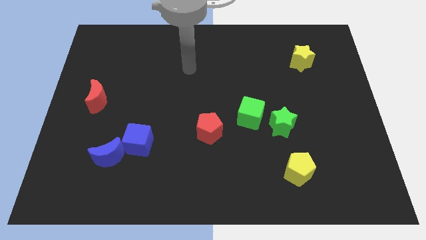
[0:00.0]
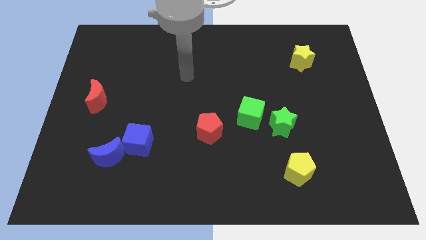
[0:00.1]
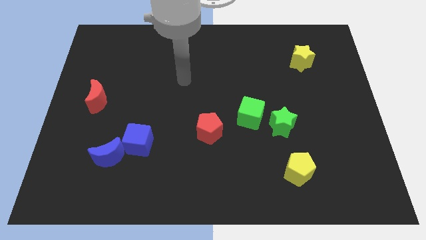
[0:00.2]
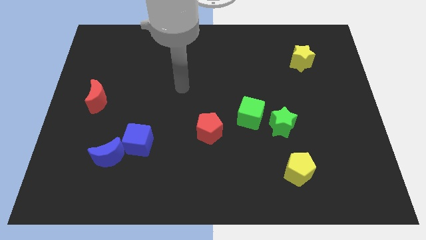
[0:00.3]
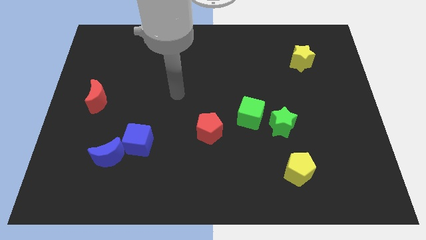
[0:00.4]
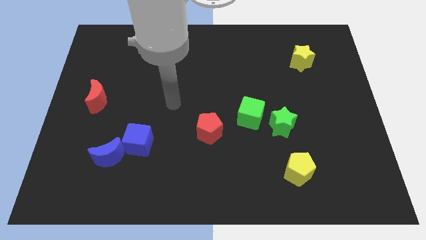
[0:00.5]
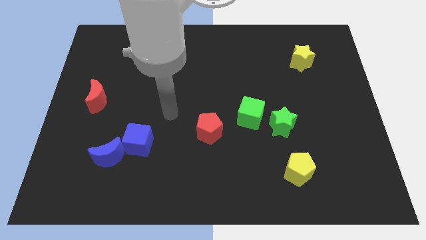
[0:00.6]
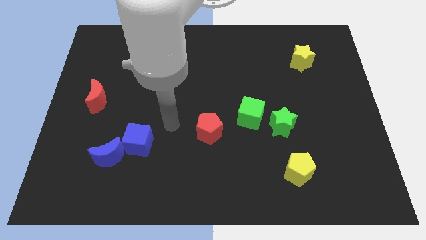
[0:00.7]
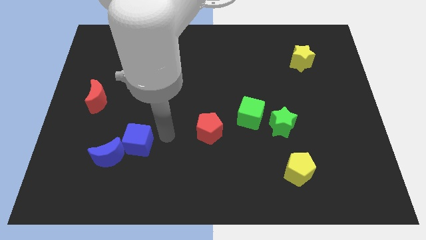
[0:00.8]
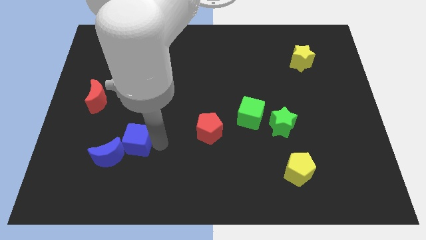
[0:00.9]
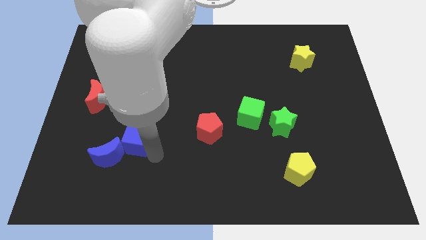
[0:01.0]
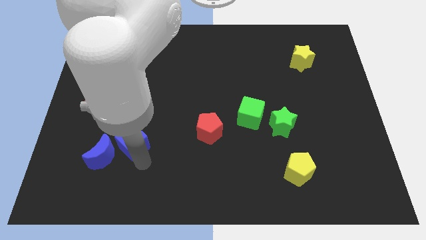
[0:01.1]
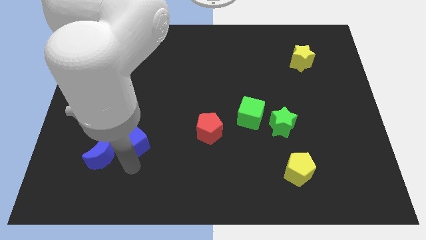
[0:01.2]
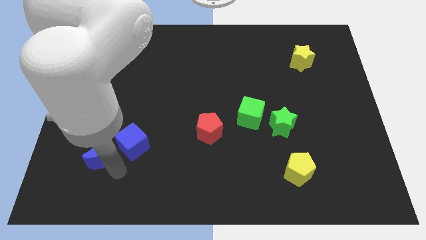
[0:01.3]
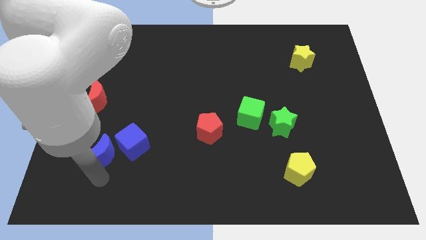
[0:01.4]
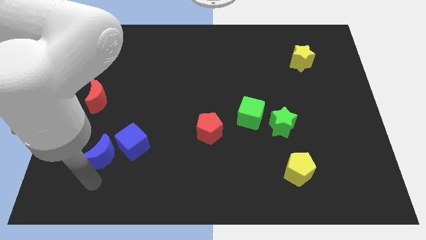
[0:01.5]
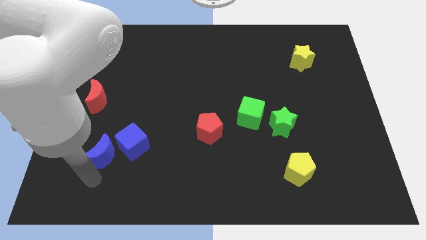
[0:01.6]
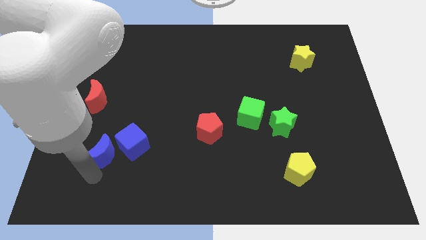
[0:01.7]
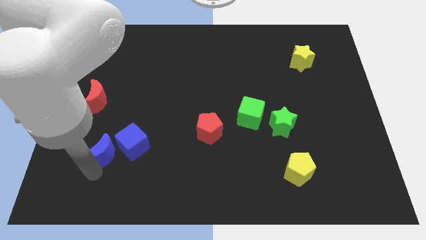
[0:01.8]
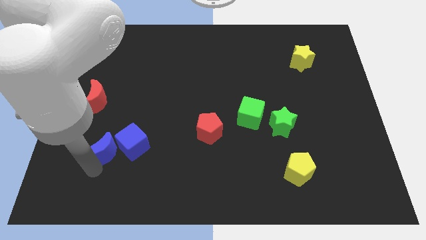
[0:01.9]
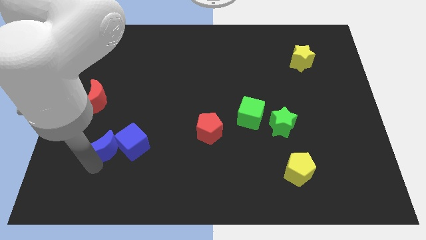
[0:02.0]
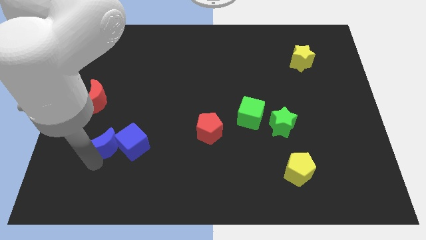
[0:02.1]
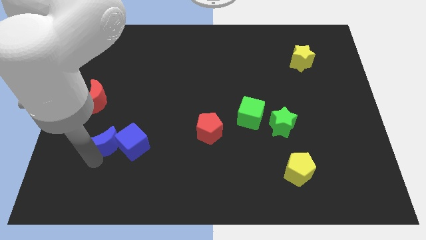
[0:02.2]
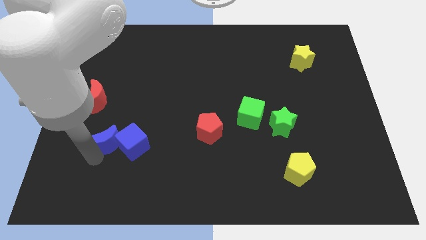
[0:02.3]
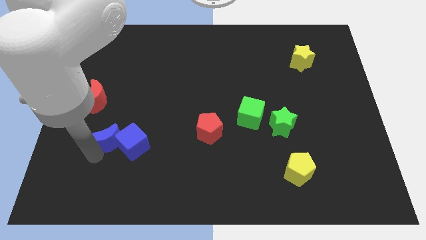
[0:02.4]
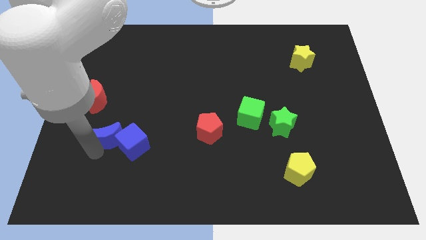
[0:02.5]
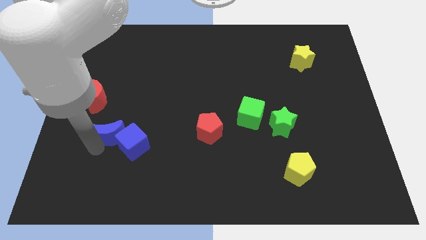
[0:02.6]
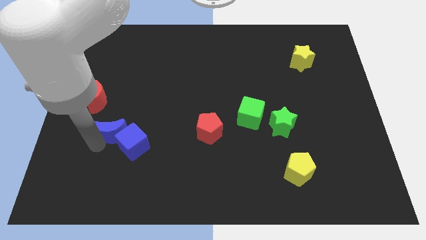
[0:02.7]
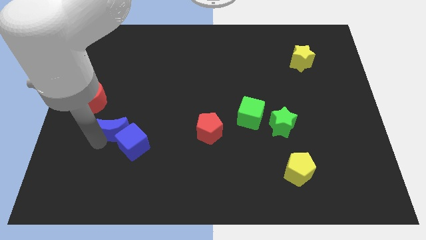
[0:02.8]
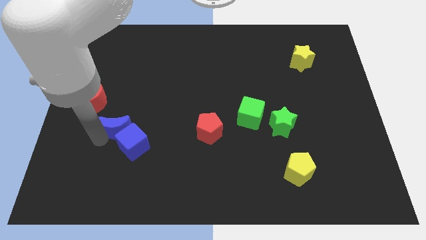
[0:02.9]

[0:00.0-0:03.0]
move the blue moon upwards a bit

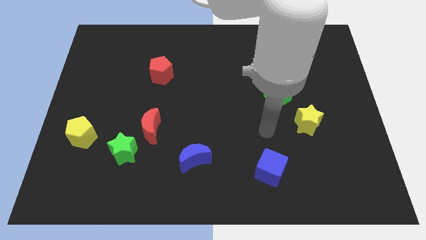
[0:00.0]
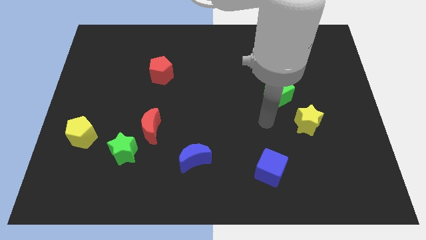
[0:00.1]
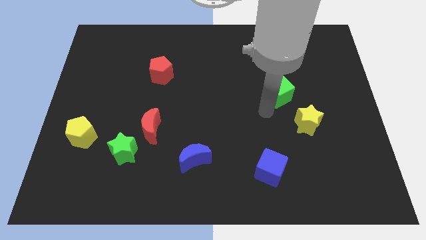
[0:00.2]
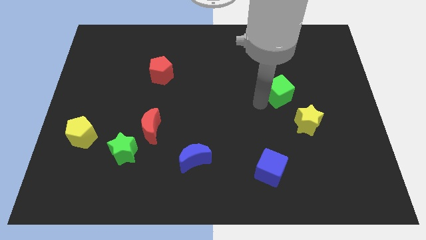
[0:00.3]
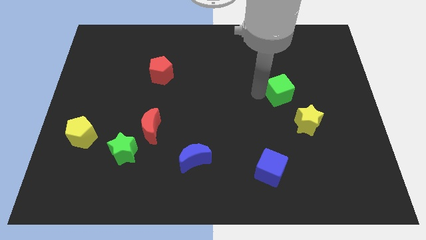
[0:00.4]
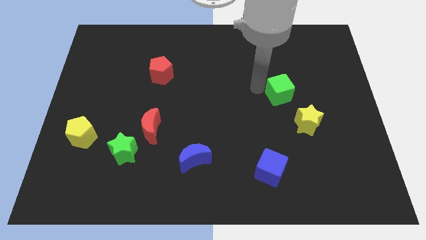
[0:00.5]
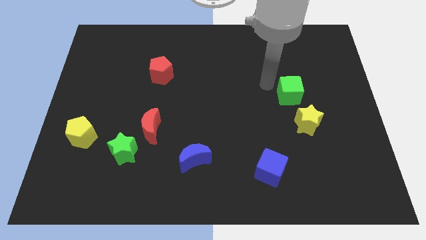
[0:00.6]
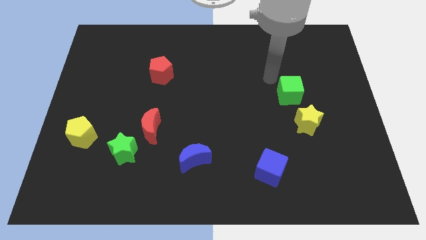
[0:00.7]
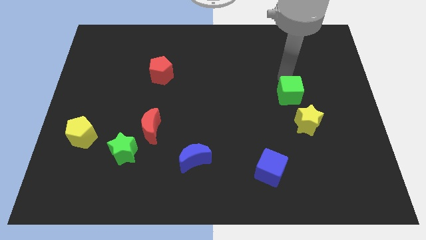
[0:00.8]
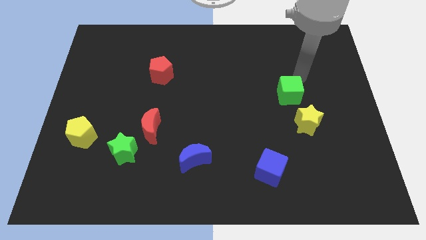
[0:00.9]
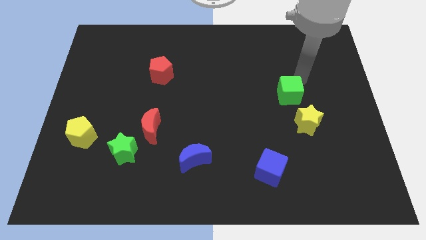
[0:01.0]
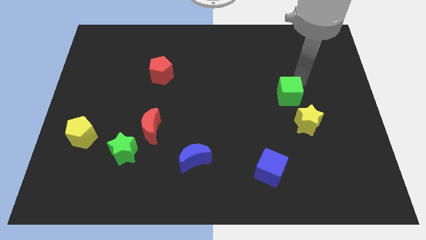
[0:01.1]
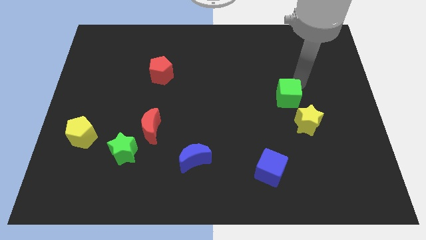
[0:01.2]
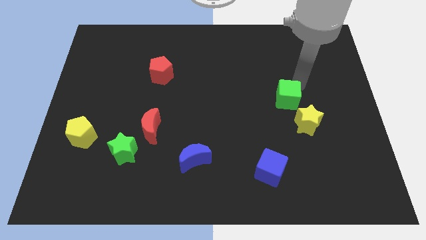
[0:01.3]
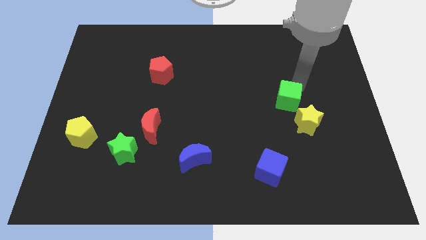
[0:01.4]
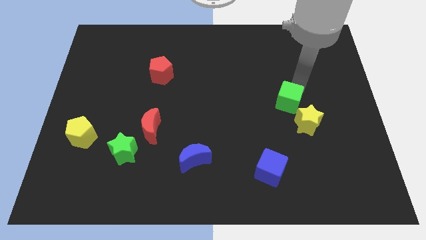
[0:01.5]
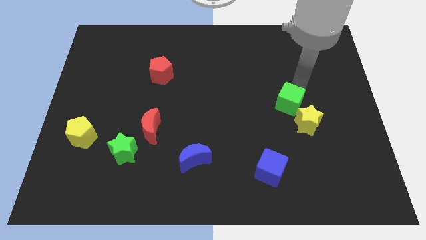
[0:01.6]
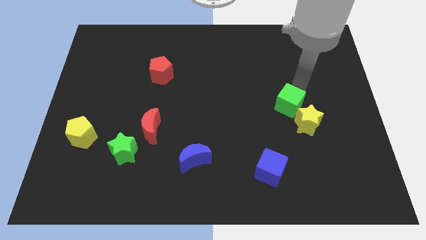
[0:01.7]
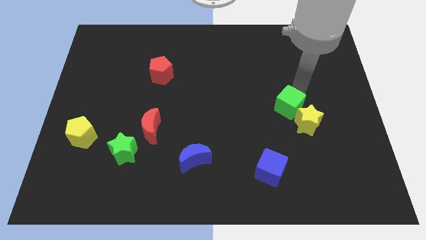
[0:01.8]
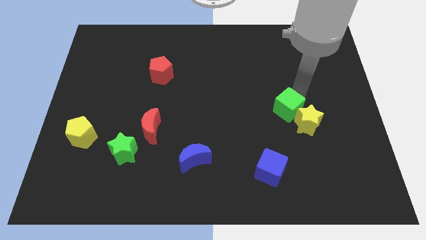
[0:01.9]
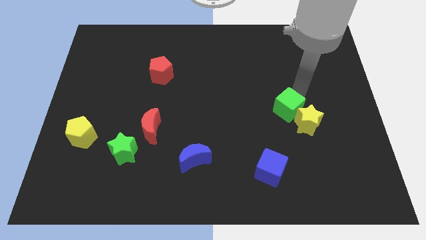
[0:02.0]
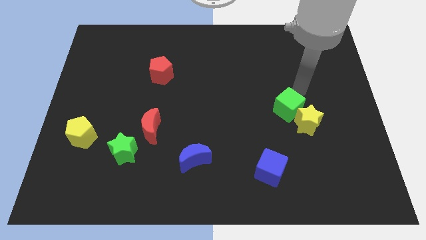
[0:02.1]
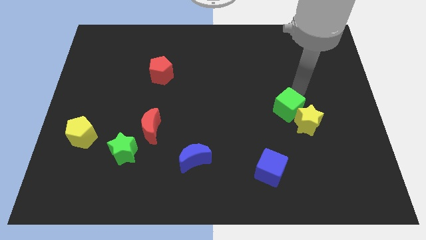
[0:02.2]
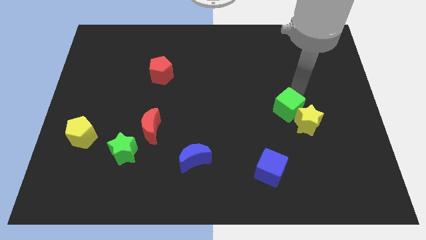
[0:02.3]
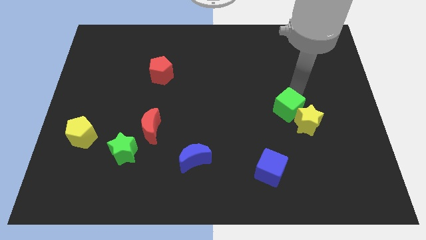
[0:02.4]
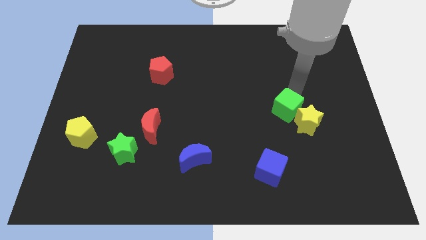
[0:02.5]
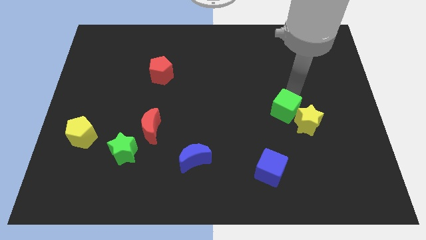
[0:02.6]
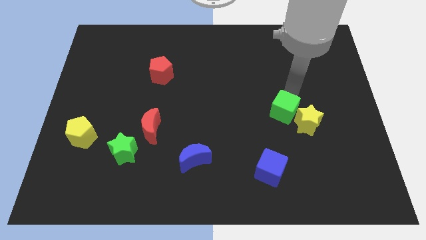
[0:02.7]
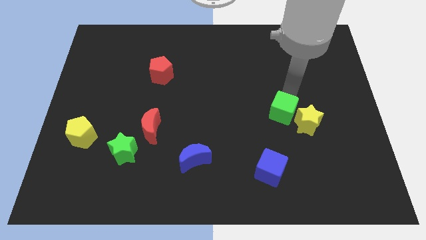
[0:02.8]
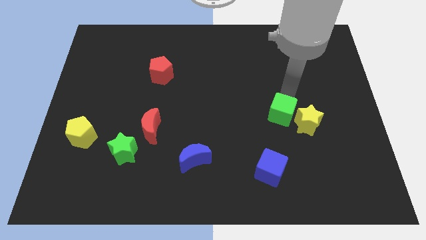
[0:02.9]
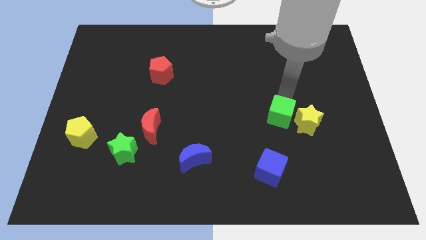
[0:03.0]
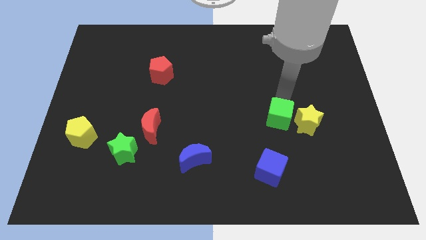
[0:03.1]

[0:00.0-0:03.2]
move the green cube slightly down

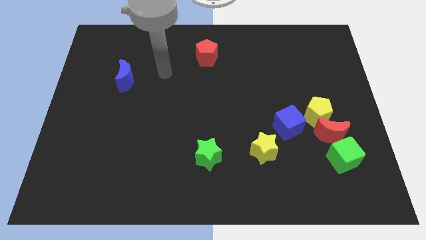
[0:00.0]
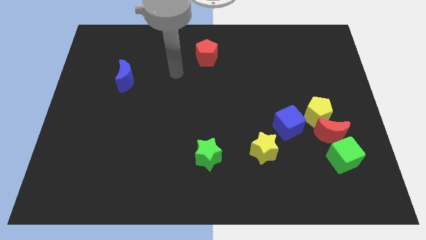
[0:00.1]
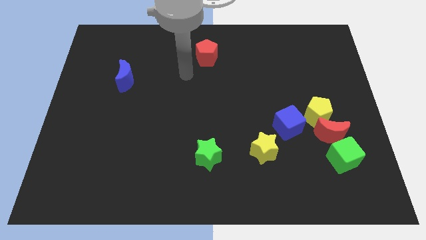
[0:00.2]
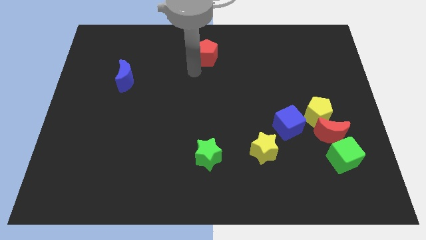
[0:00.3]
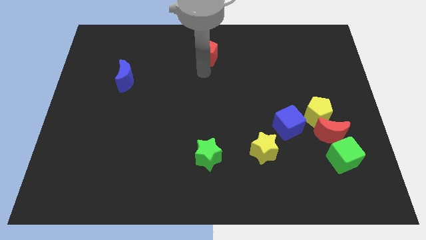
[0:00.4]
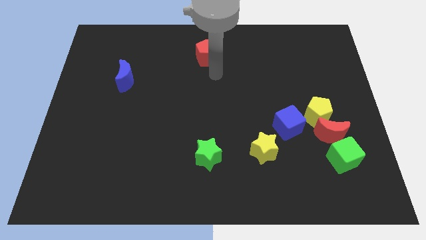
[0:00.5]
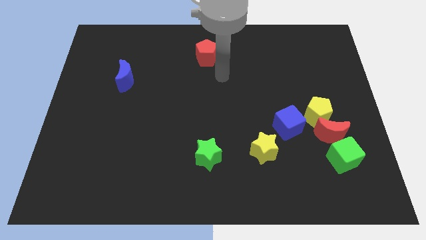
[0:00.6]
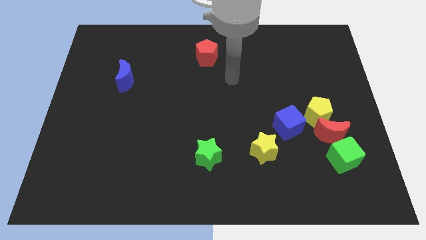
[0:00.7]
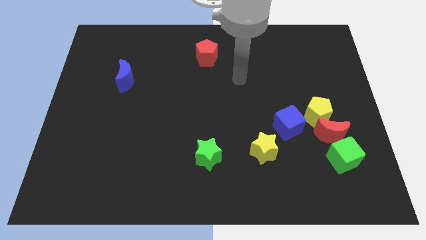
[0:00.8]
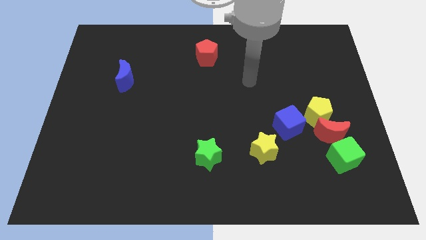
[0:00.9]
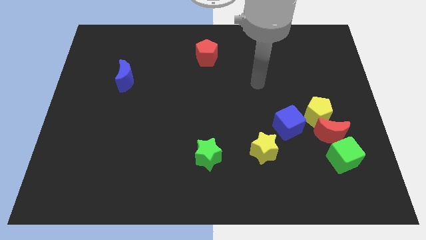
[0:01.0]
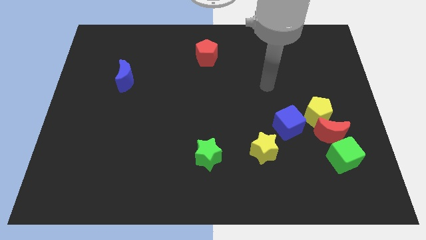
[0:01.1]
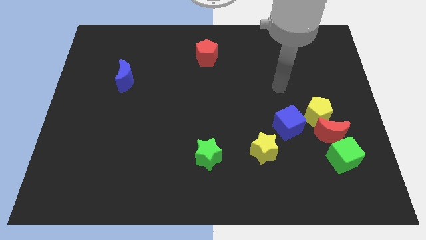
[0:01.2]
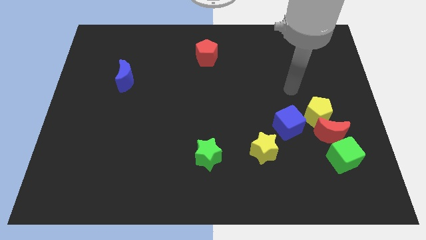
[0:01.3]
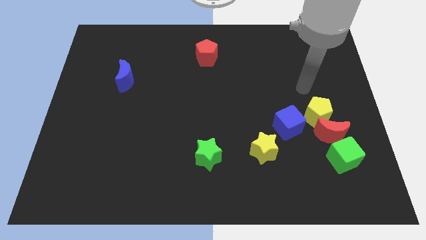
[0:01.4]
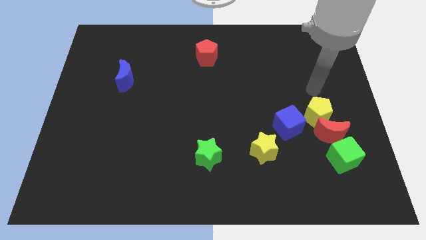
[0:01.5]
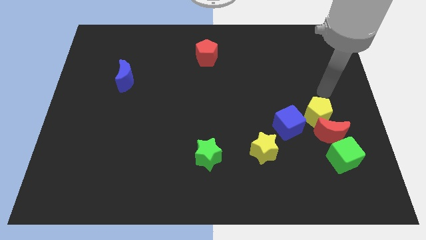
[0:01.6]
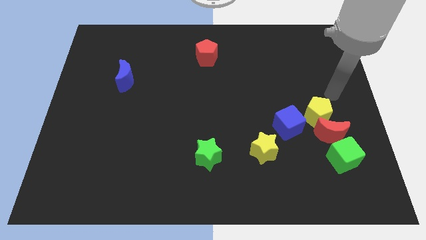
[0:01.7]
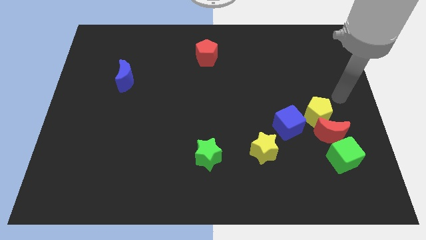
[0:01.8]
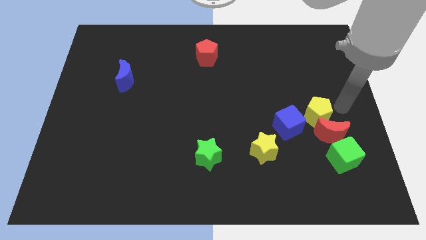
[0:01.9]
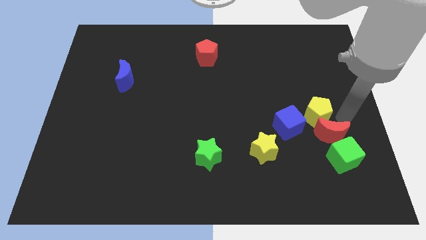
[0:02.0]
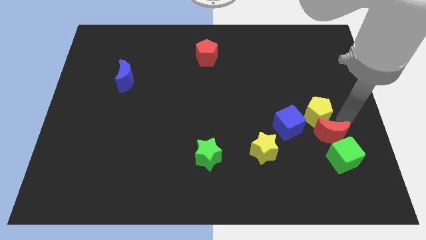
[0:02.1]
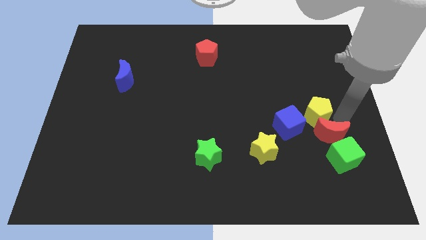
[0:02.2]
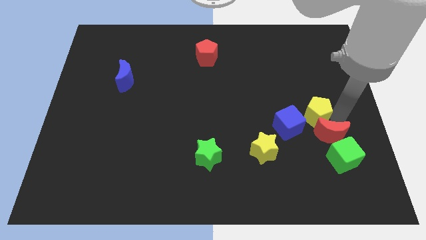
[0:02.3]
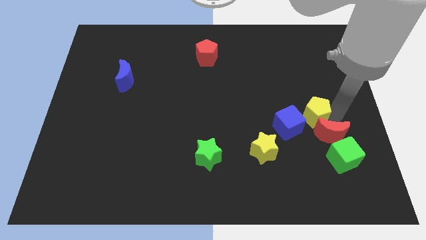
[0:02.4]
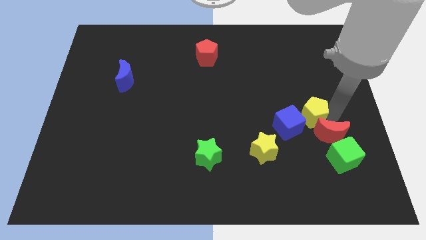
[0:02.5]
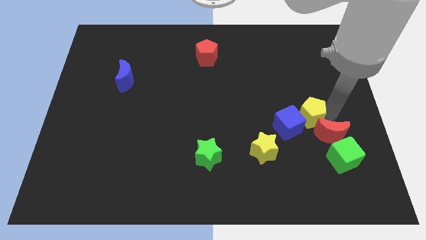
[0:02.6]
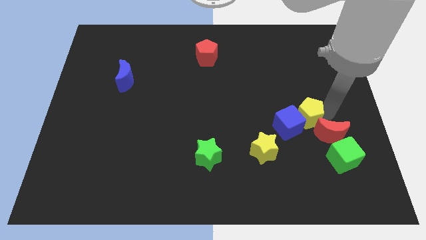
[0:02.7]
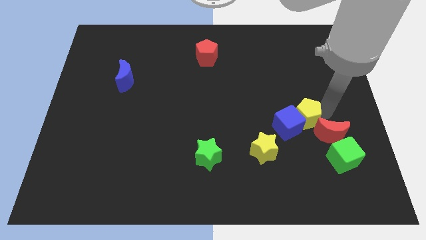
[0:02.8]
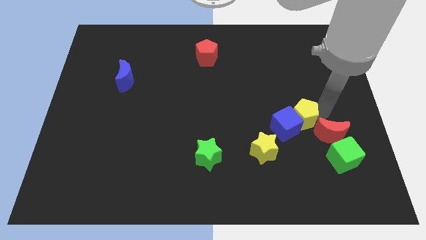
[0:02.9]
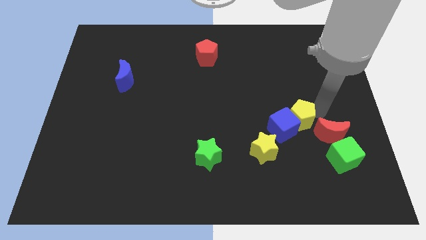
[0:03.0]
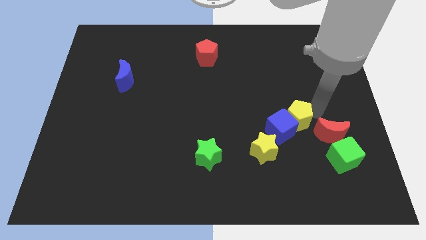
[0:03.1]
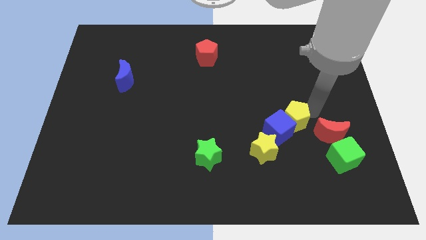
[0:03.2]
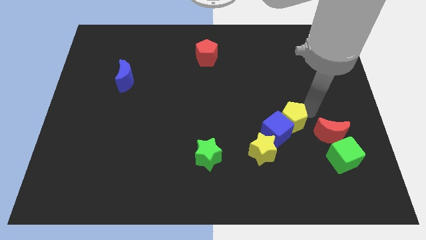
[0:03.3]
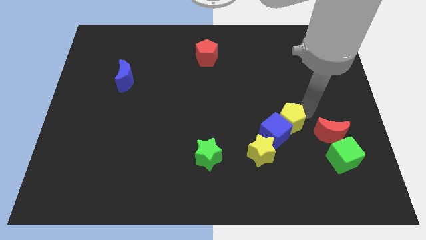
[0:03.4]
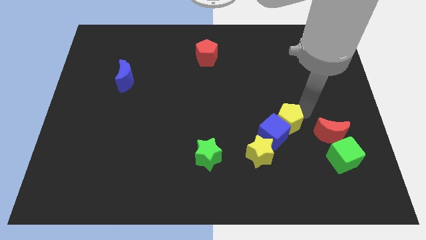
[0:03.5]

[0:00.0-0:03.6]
slightly move the yellow pentagon left
